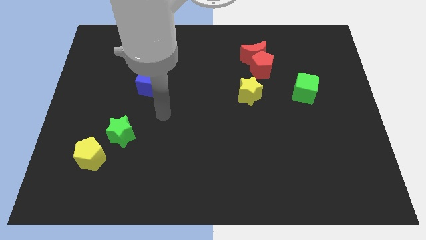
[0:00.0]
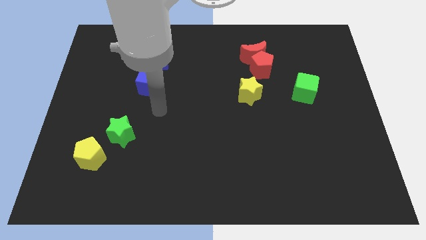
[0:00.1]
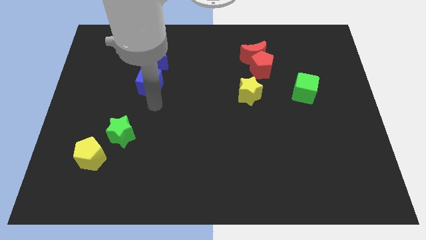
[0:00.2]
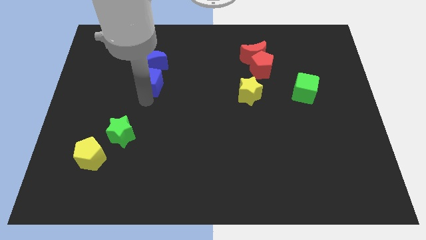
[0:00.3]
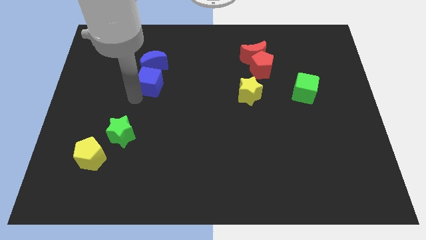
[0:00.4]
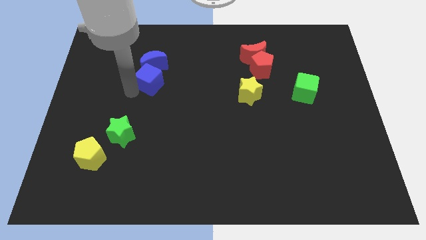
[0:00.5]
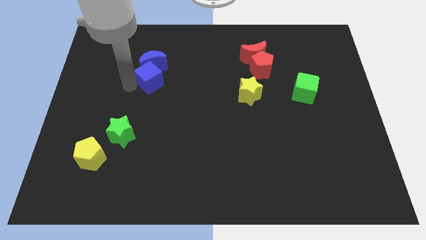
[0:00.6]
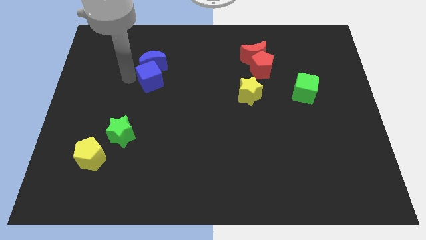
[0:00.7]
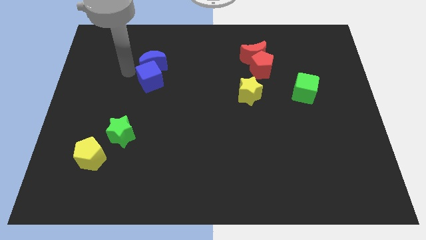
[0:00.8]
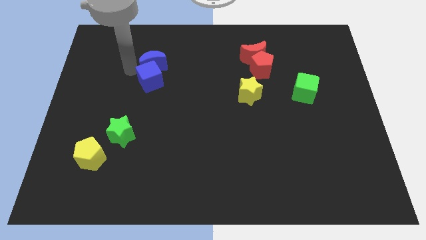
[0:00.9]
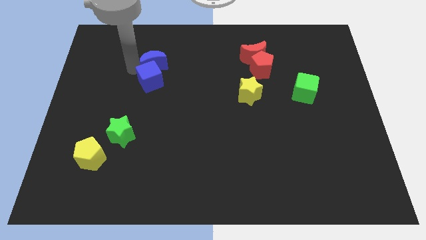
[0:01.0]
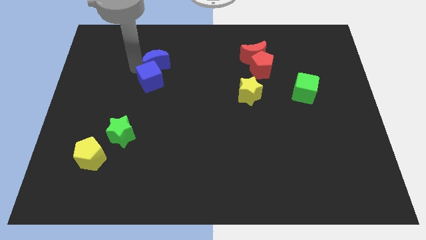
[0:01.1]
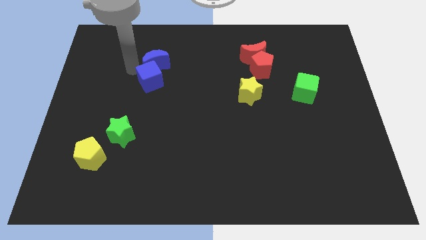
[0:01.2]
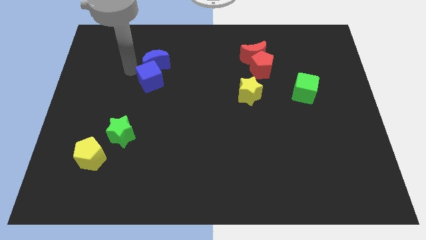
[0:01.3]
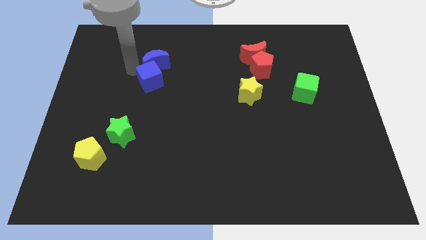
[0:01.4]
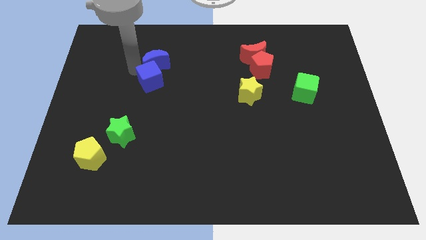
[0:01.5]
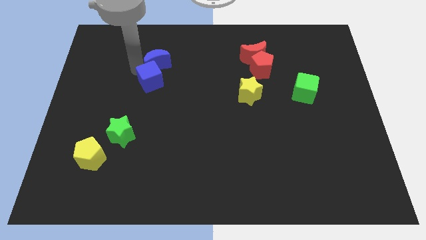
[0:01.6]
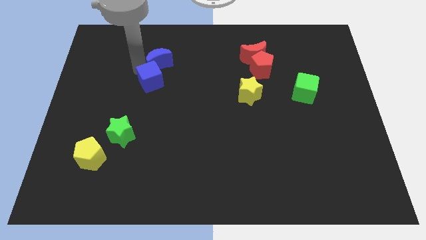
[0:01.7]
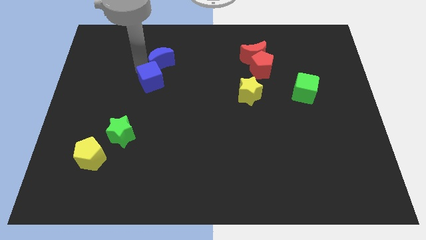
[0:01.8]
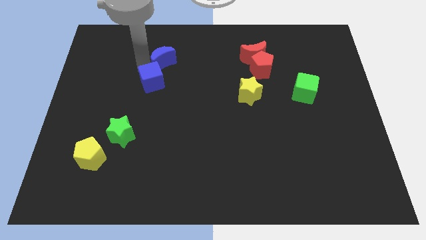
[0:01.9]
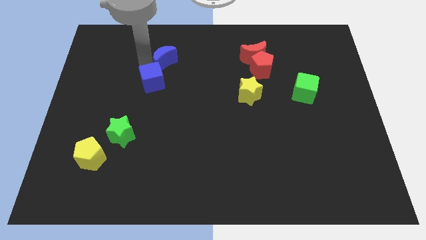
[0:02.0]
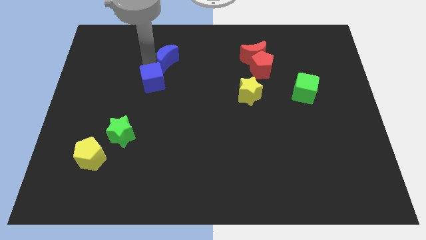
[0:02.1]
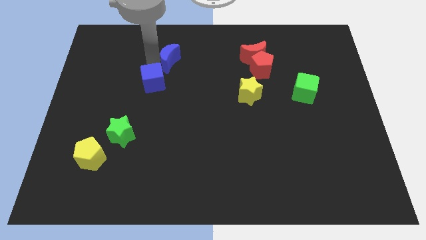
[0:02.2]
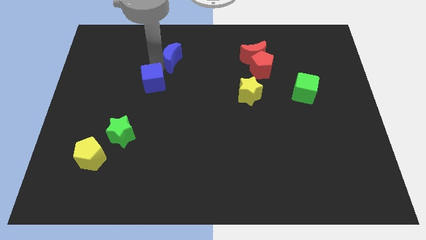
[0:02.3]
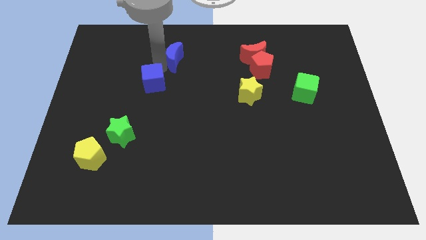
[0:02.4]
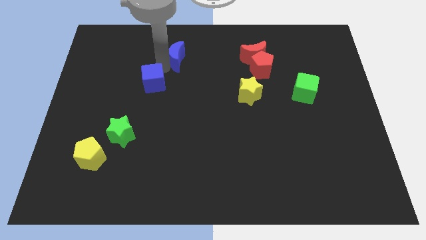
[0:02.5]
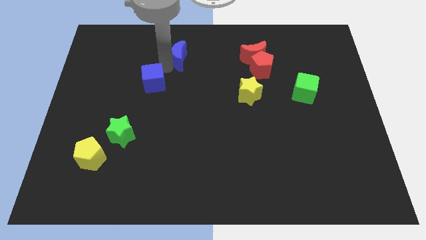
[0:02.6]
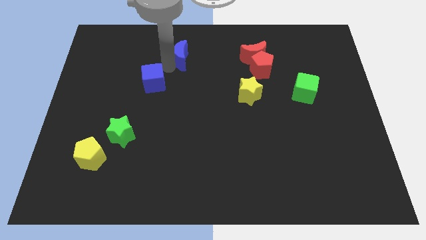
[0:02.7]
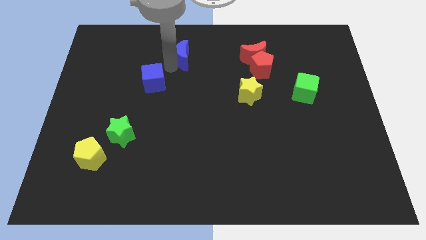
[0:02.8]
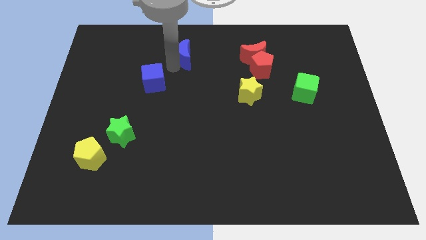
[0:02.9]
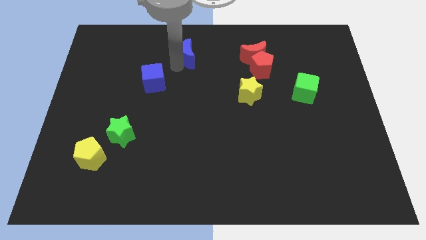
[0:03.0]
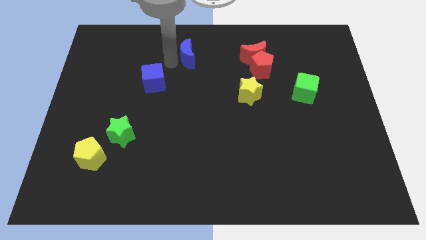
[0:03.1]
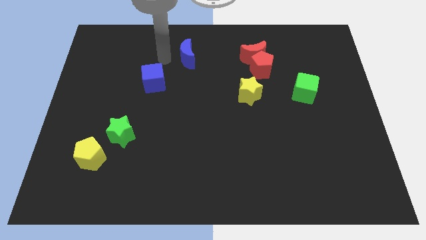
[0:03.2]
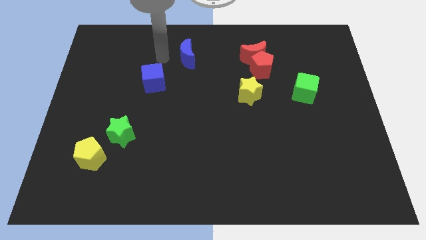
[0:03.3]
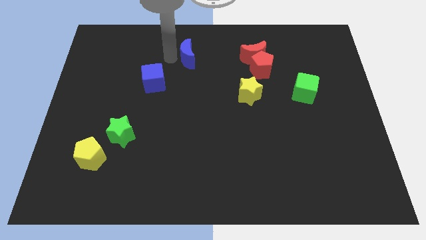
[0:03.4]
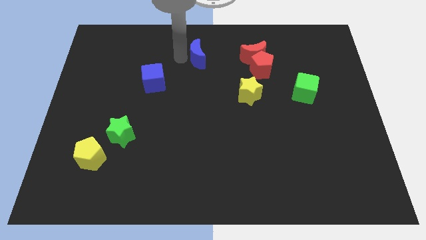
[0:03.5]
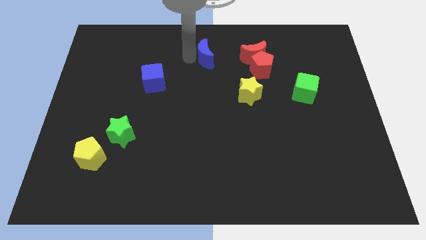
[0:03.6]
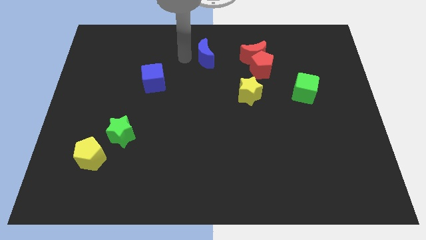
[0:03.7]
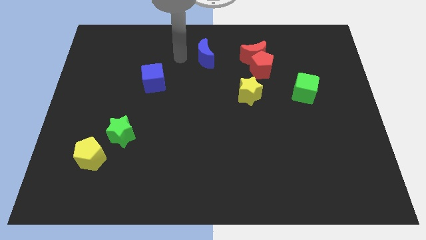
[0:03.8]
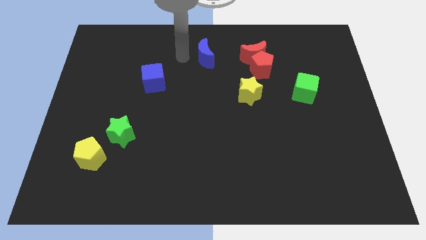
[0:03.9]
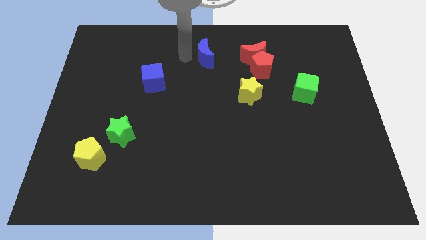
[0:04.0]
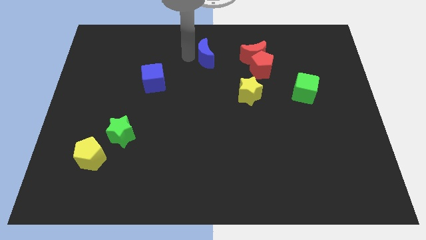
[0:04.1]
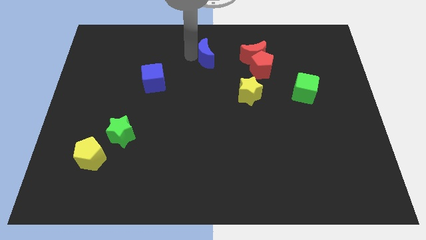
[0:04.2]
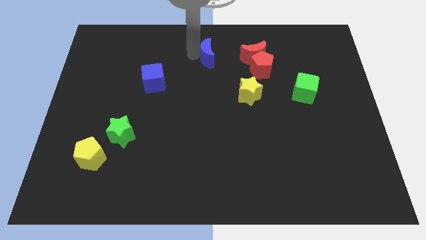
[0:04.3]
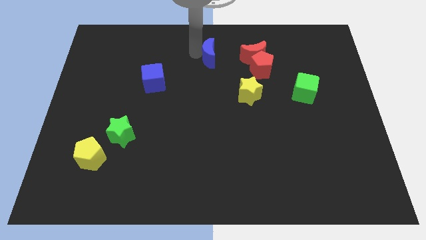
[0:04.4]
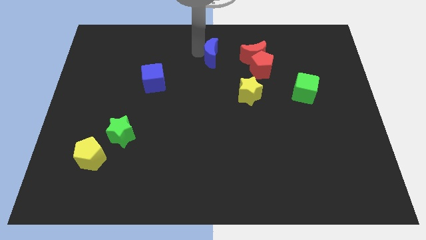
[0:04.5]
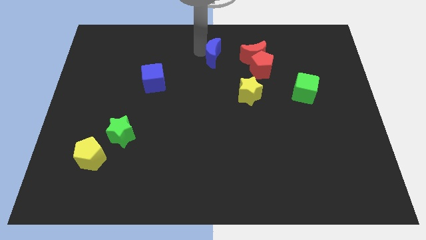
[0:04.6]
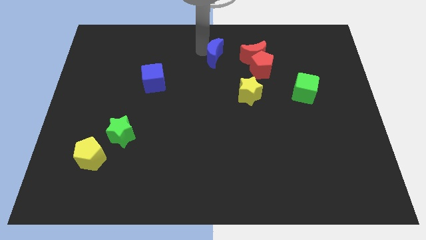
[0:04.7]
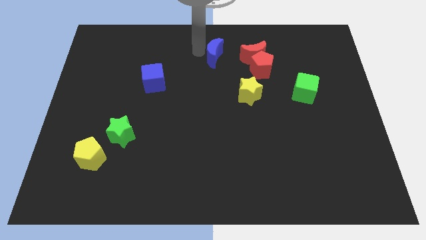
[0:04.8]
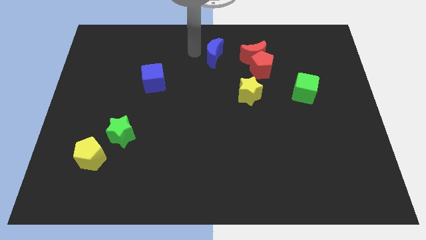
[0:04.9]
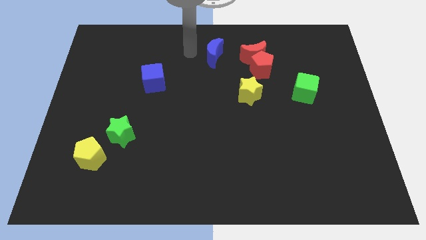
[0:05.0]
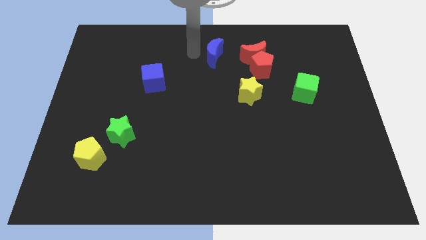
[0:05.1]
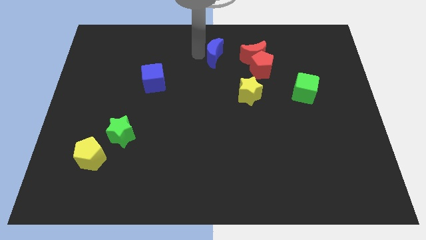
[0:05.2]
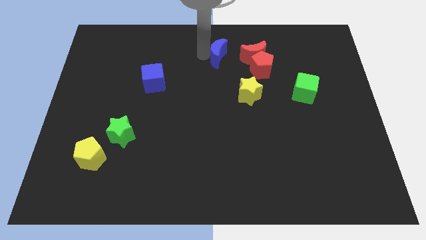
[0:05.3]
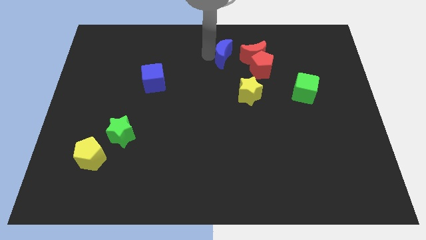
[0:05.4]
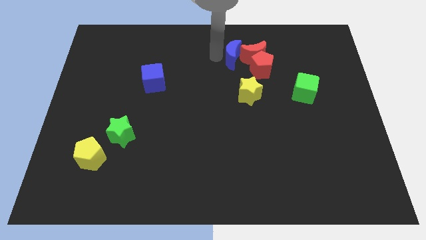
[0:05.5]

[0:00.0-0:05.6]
move the blue moon close to the red moon

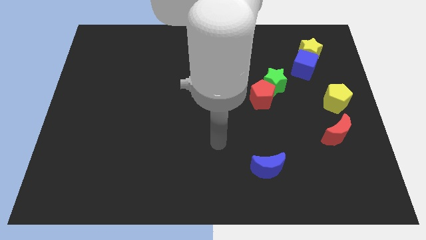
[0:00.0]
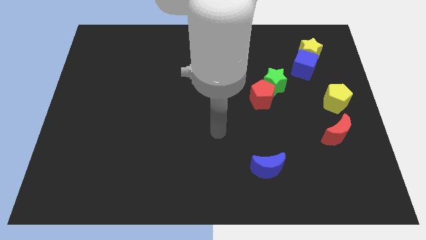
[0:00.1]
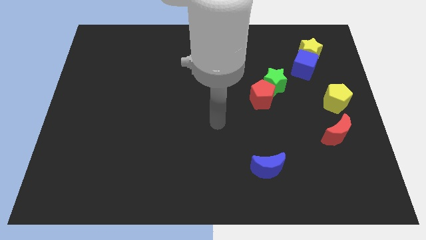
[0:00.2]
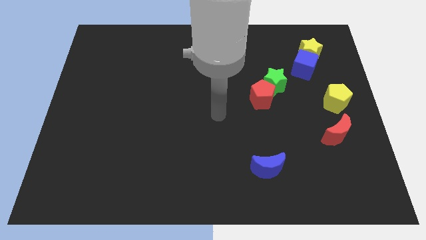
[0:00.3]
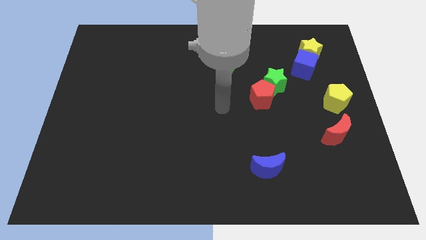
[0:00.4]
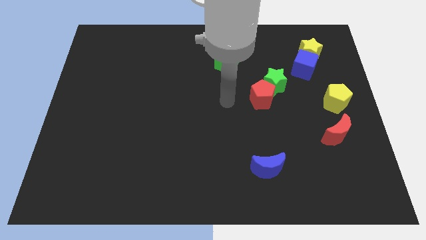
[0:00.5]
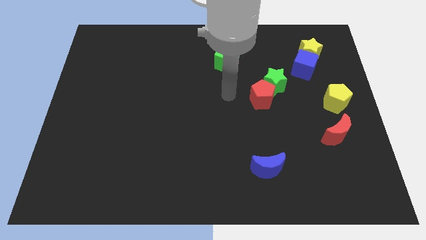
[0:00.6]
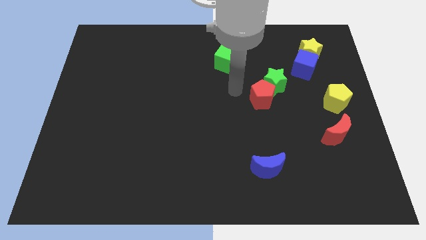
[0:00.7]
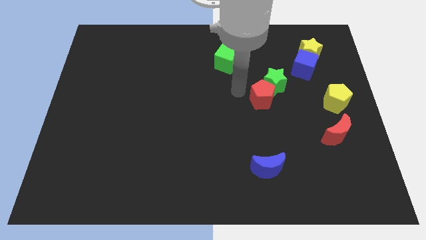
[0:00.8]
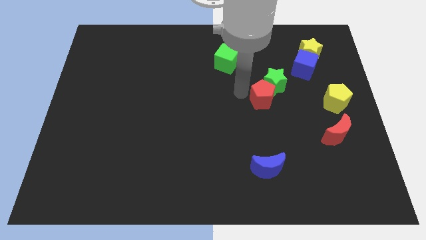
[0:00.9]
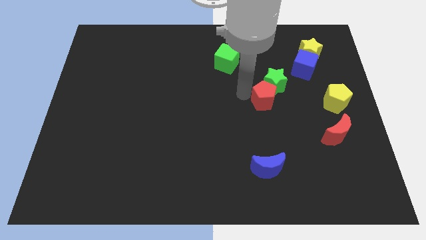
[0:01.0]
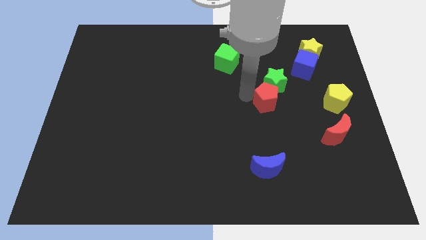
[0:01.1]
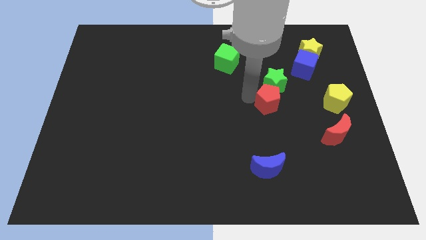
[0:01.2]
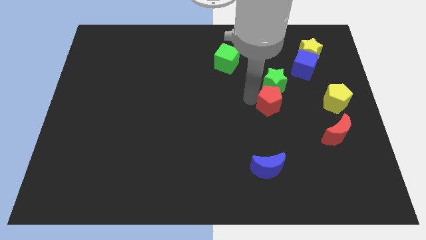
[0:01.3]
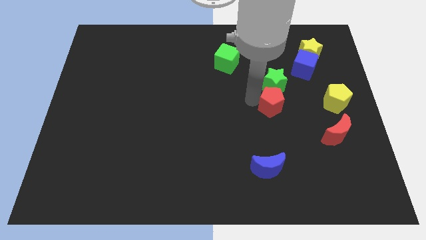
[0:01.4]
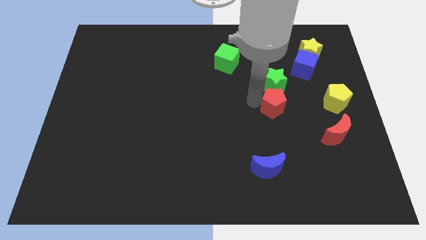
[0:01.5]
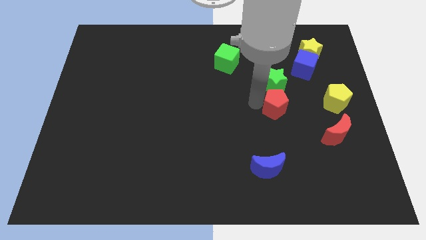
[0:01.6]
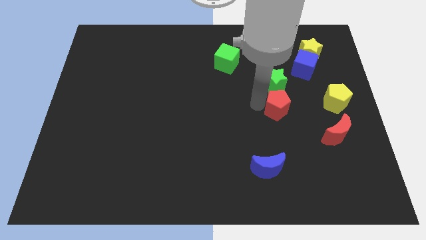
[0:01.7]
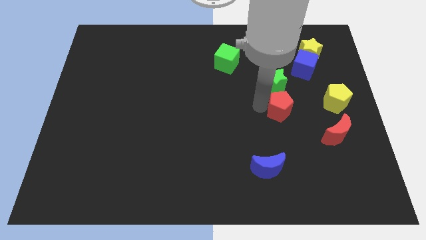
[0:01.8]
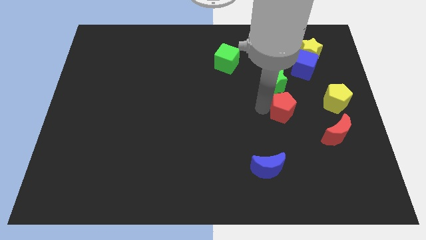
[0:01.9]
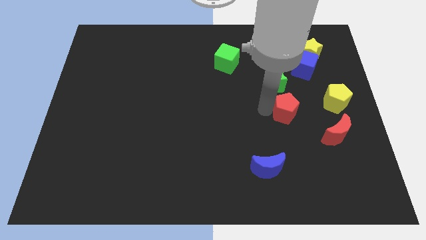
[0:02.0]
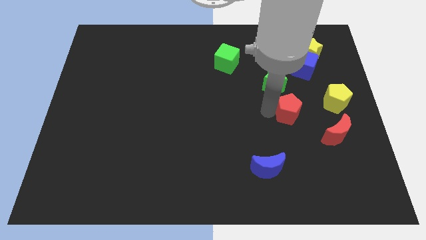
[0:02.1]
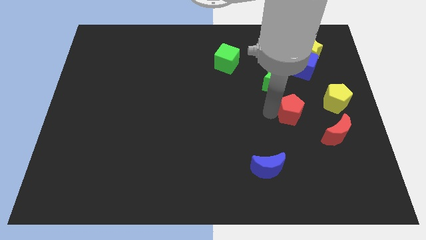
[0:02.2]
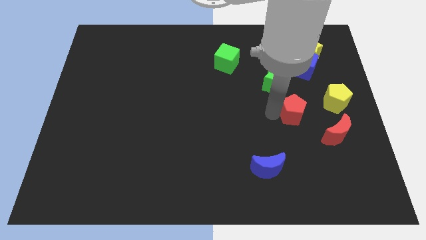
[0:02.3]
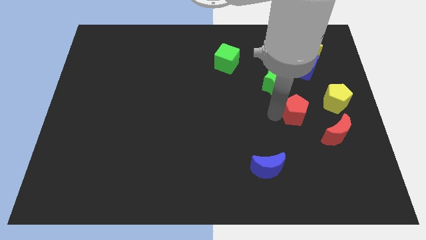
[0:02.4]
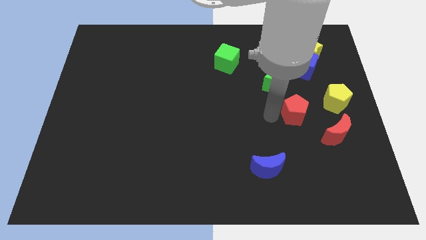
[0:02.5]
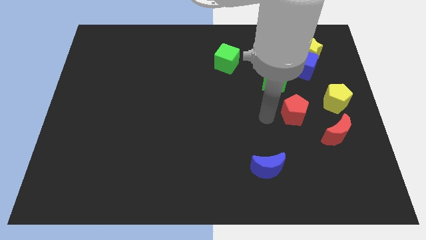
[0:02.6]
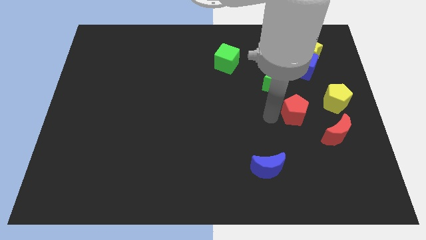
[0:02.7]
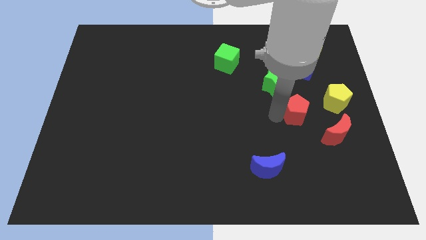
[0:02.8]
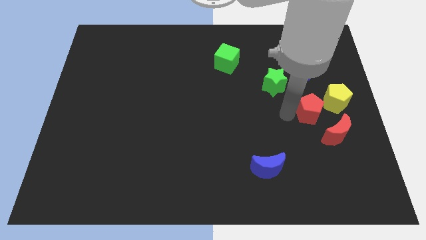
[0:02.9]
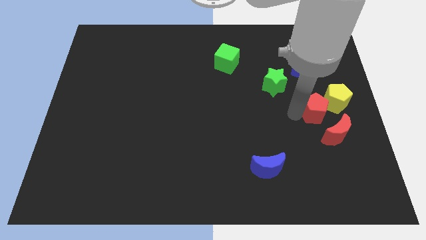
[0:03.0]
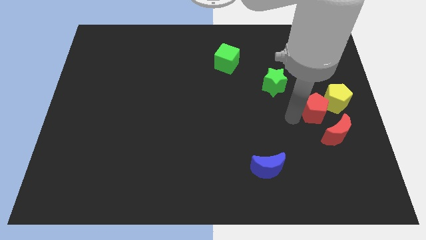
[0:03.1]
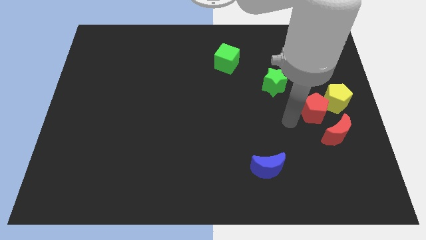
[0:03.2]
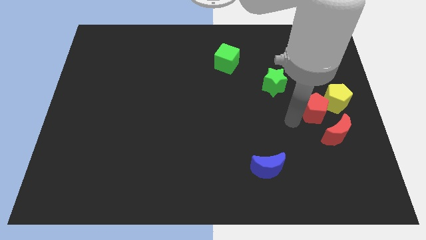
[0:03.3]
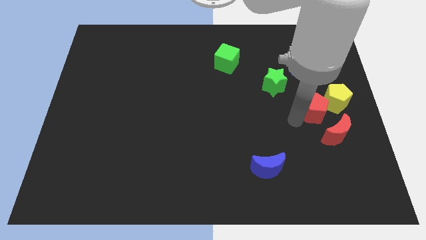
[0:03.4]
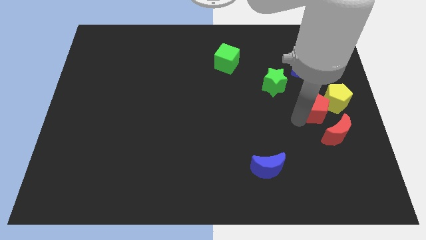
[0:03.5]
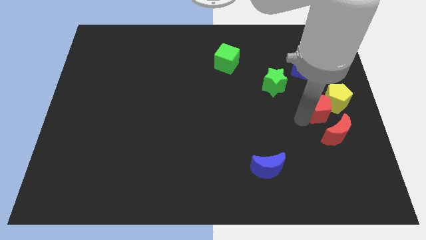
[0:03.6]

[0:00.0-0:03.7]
move the red pentagon close to the yellow pentagon
